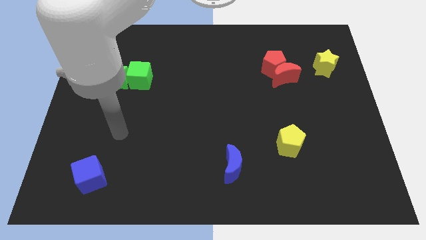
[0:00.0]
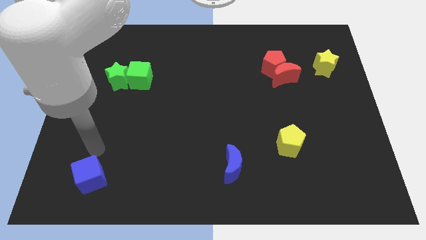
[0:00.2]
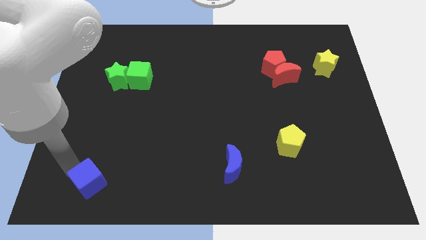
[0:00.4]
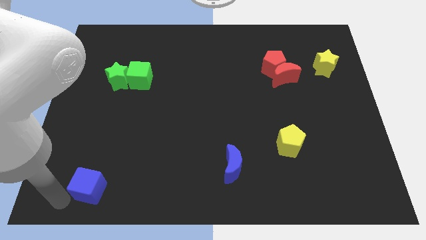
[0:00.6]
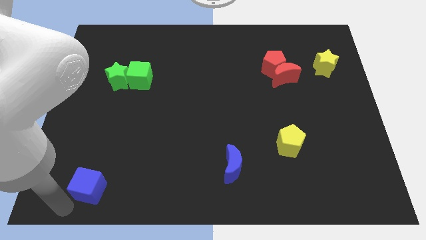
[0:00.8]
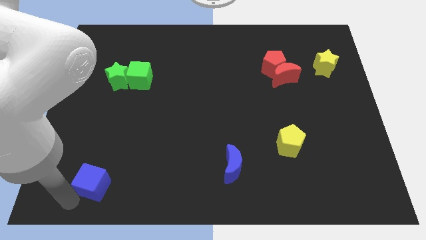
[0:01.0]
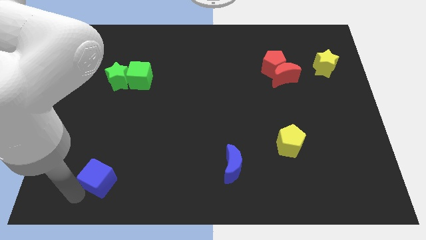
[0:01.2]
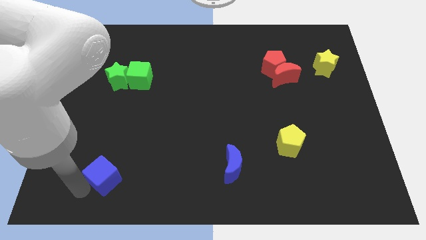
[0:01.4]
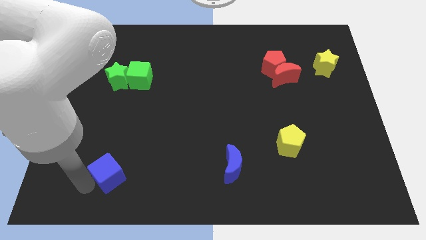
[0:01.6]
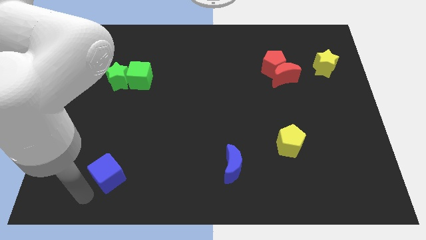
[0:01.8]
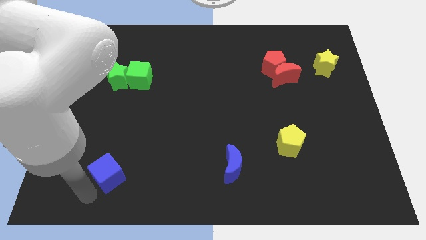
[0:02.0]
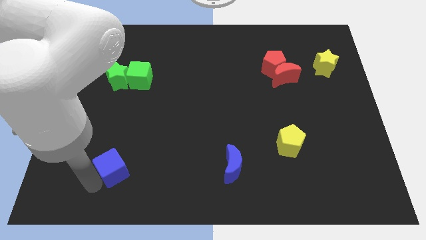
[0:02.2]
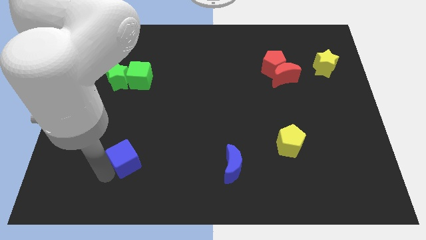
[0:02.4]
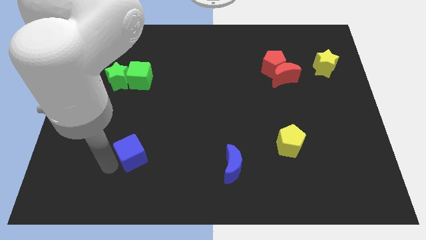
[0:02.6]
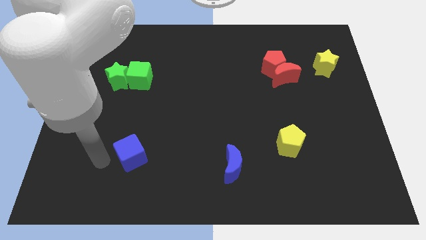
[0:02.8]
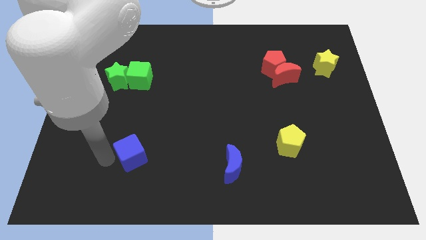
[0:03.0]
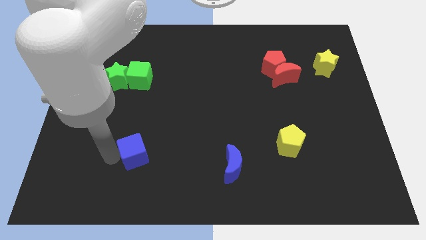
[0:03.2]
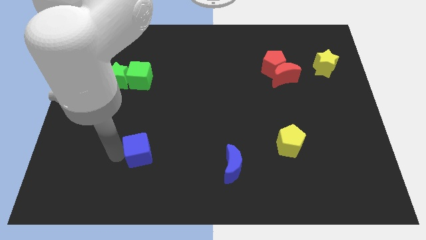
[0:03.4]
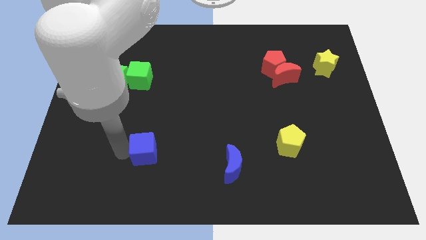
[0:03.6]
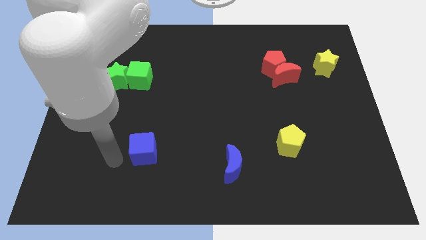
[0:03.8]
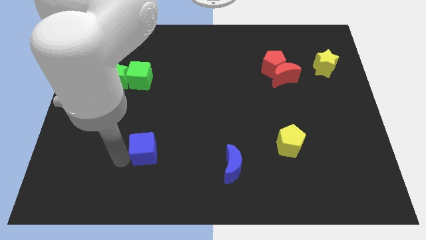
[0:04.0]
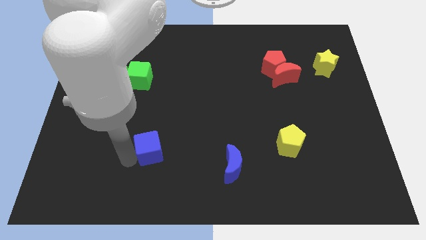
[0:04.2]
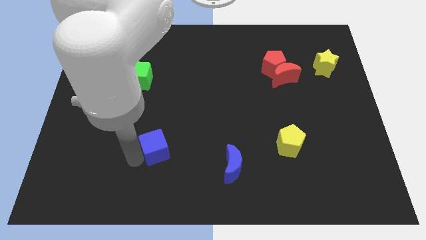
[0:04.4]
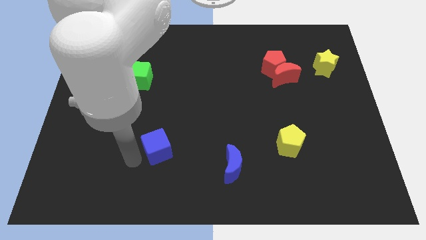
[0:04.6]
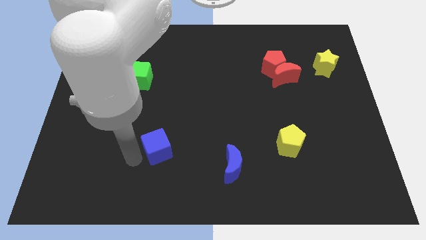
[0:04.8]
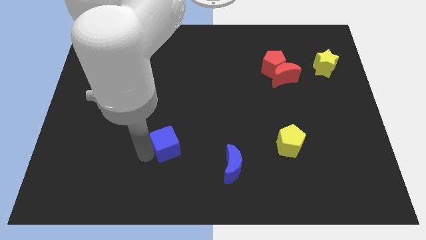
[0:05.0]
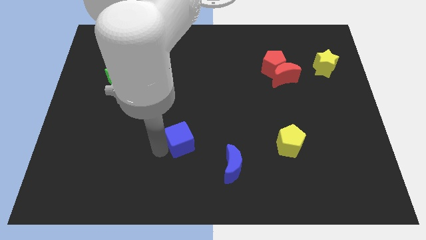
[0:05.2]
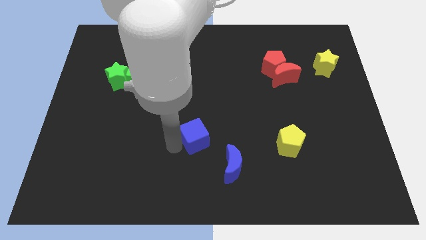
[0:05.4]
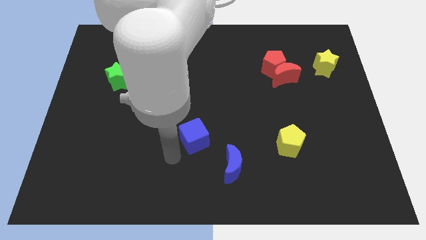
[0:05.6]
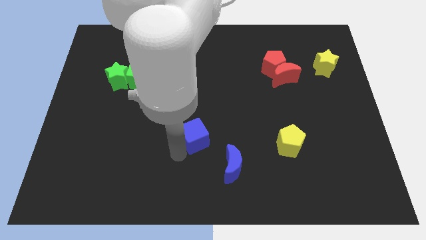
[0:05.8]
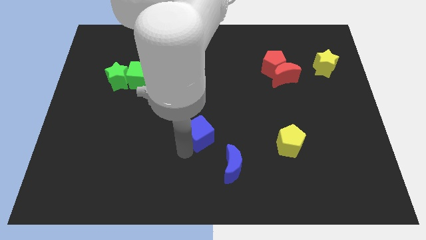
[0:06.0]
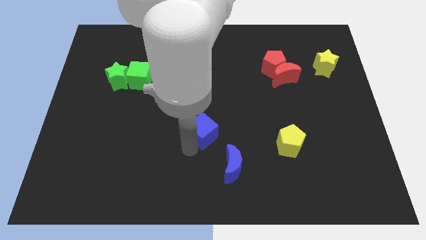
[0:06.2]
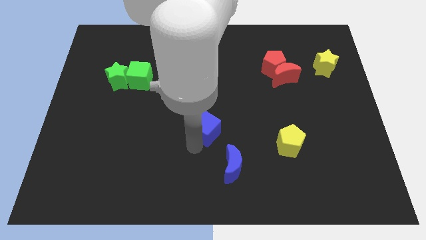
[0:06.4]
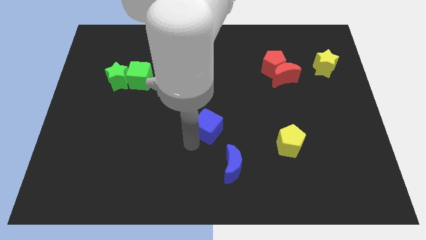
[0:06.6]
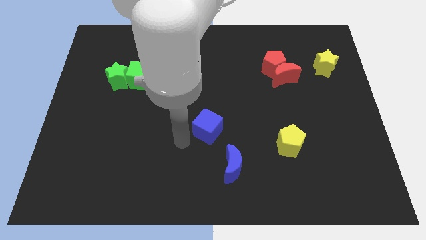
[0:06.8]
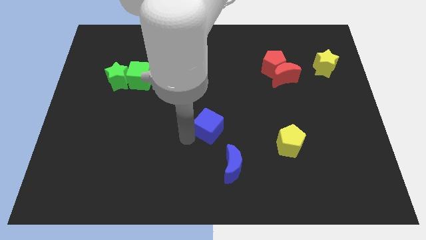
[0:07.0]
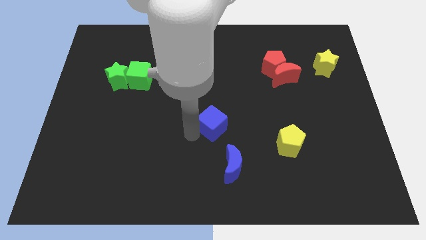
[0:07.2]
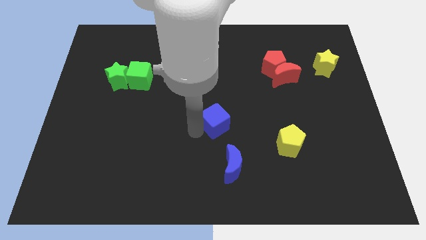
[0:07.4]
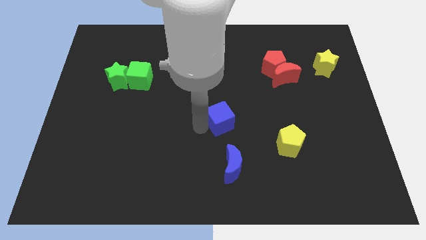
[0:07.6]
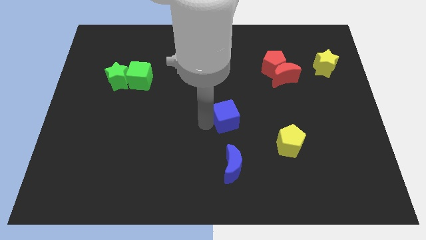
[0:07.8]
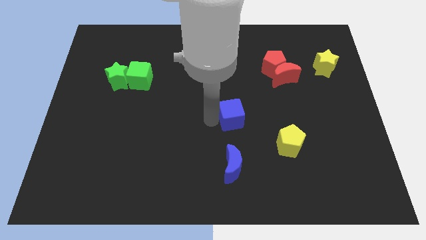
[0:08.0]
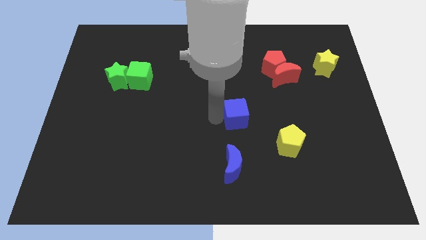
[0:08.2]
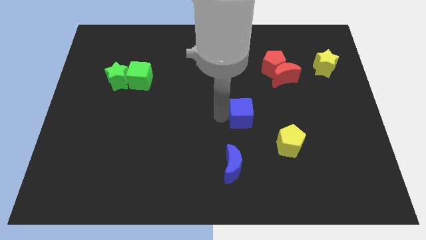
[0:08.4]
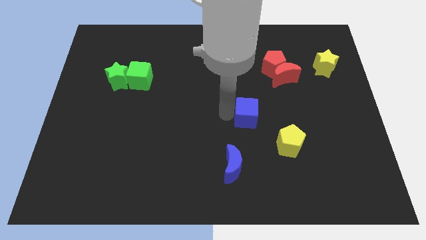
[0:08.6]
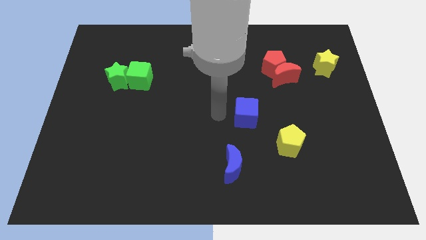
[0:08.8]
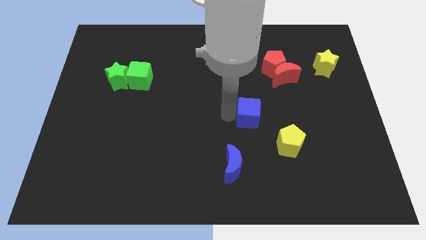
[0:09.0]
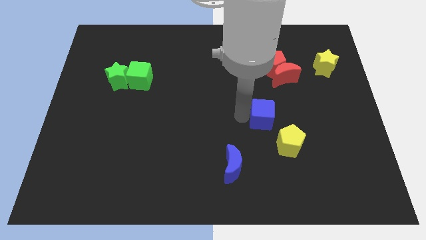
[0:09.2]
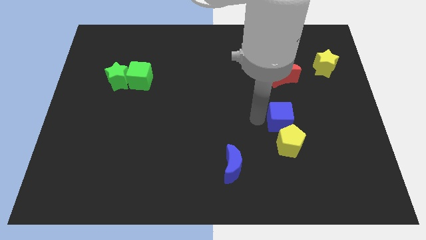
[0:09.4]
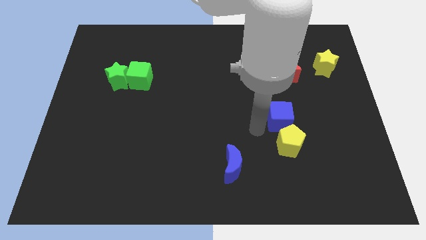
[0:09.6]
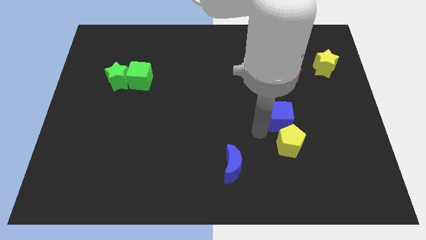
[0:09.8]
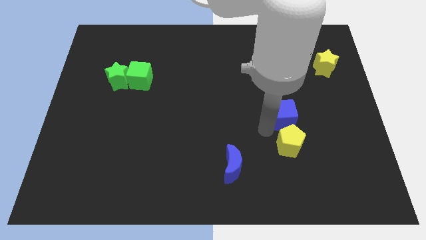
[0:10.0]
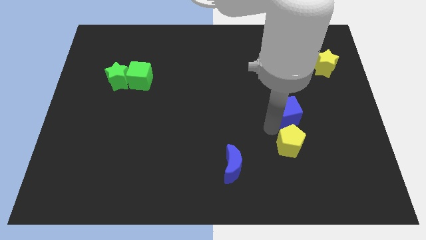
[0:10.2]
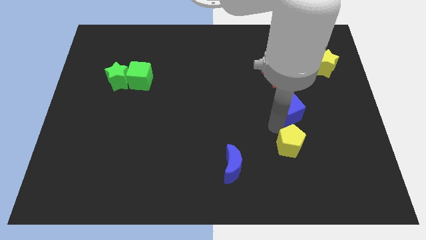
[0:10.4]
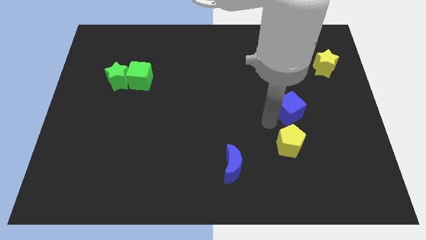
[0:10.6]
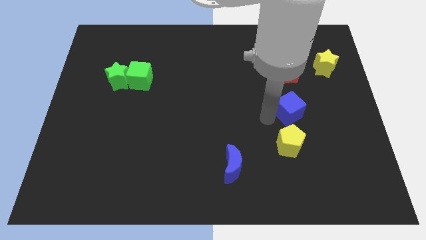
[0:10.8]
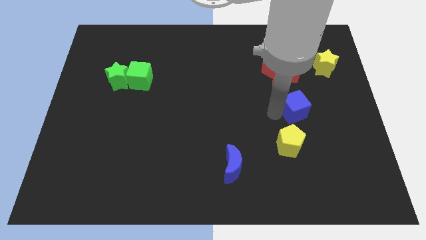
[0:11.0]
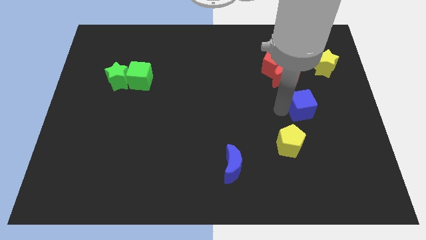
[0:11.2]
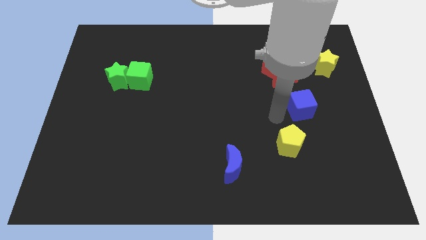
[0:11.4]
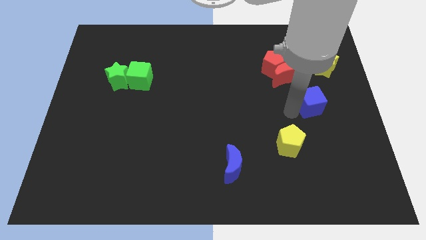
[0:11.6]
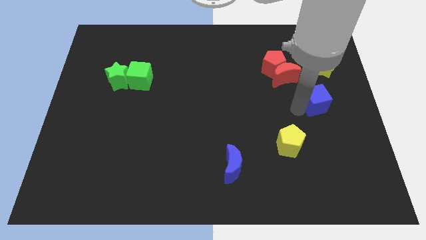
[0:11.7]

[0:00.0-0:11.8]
put the blue cube to the bottom of the yellow star

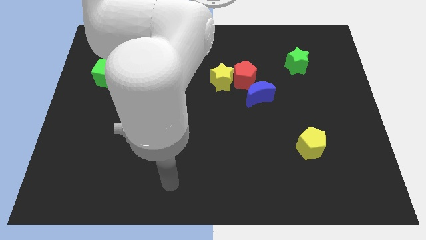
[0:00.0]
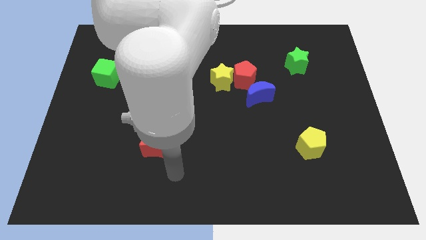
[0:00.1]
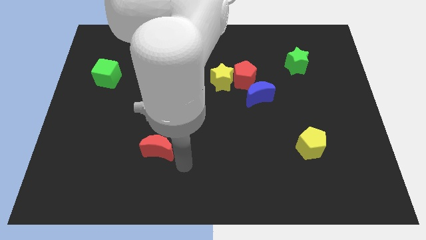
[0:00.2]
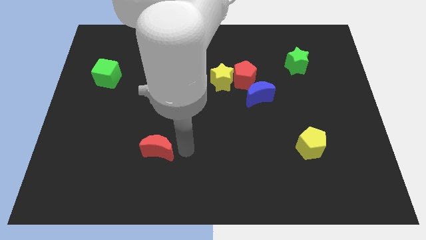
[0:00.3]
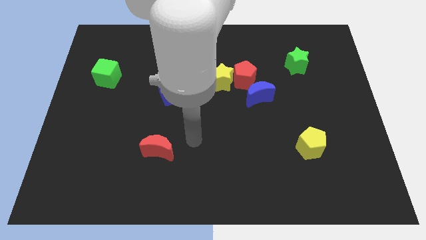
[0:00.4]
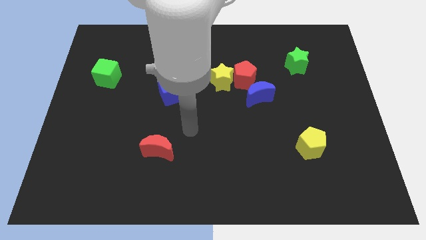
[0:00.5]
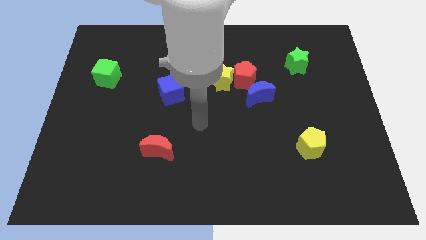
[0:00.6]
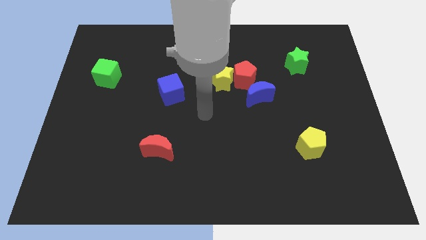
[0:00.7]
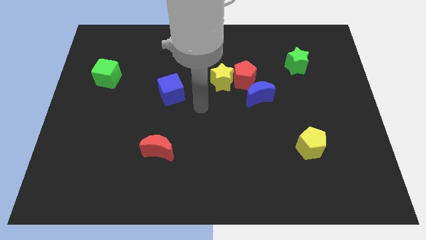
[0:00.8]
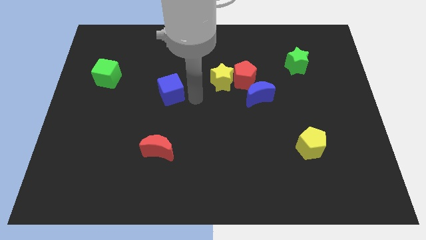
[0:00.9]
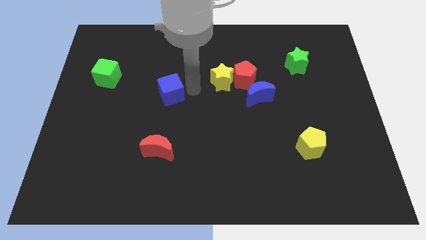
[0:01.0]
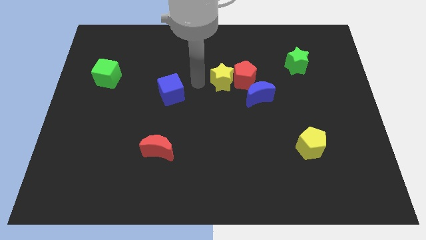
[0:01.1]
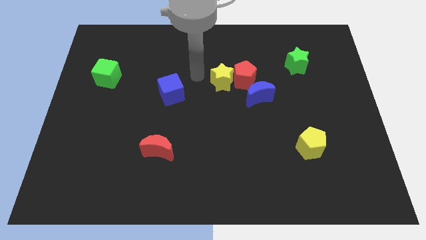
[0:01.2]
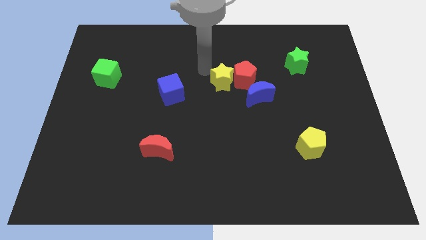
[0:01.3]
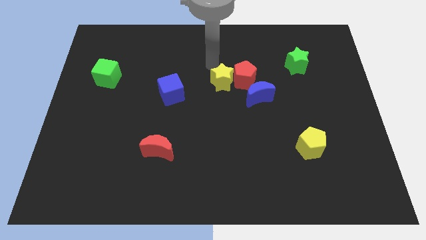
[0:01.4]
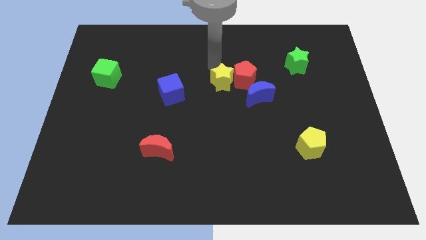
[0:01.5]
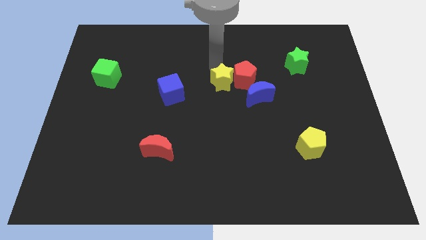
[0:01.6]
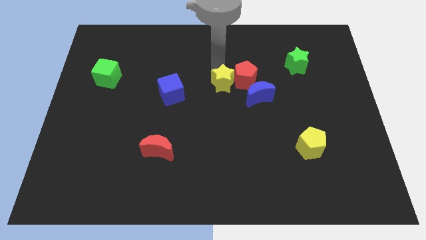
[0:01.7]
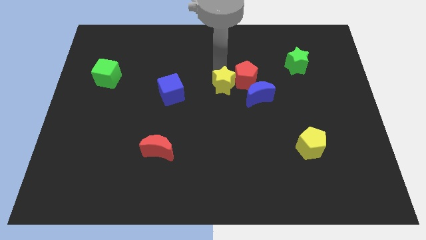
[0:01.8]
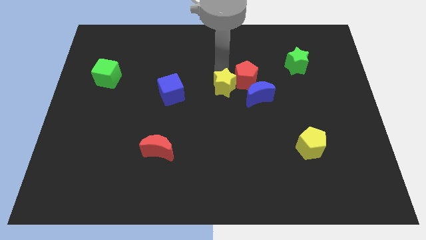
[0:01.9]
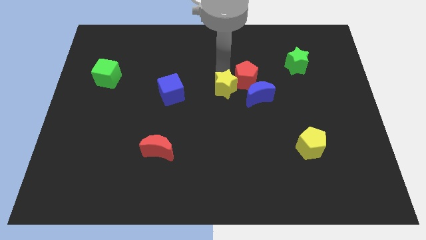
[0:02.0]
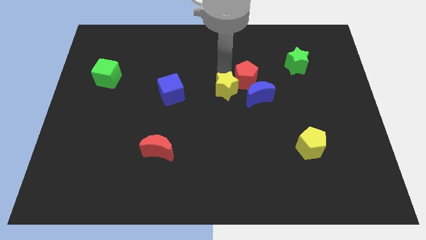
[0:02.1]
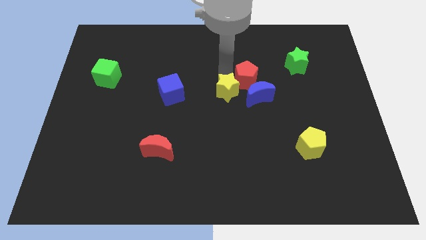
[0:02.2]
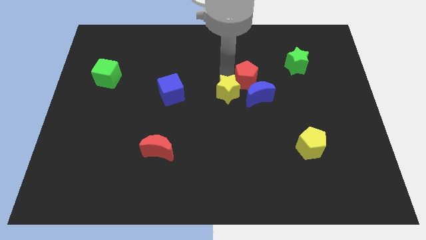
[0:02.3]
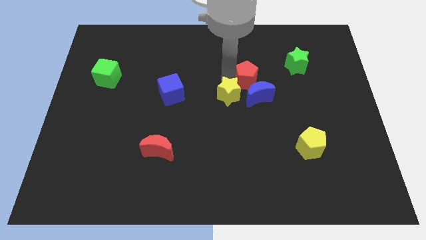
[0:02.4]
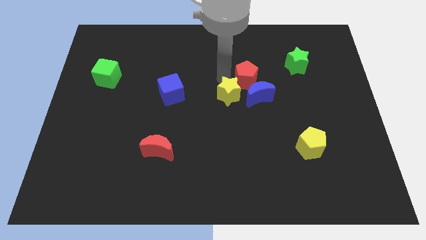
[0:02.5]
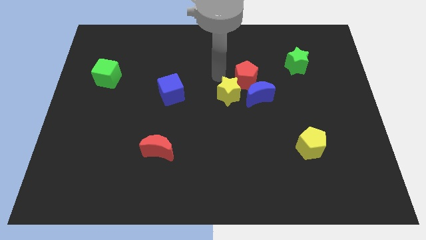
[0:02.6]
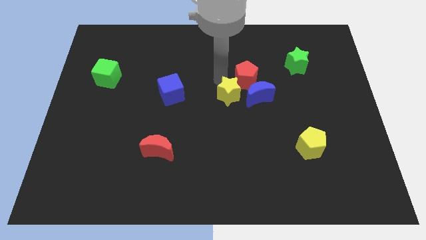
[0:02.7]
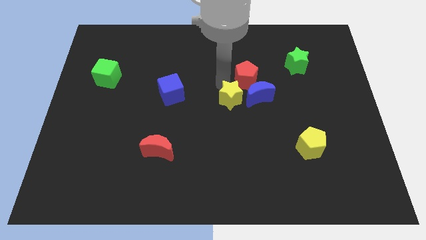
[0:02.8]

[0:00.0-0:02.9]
put the yellow star to the bottom left side of the blue moon
